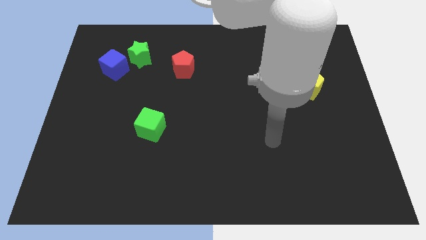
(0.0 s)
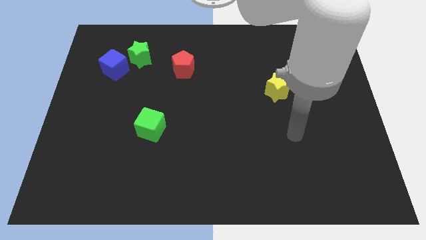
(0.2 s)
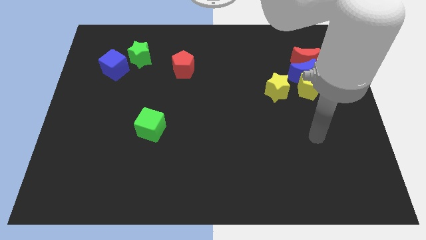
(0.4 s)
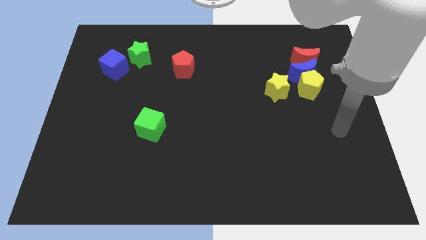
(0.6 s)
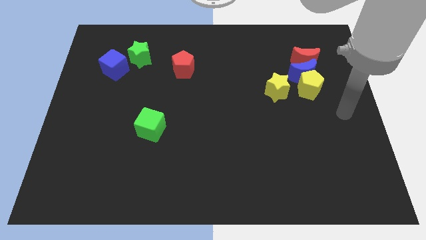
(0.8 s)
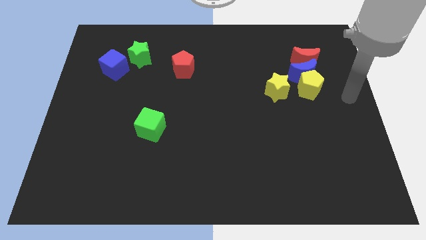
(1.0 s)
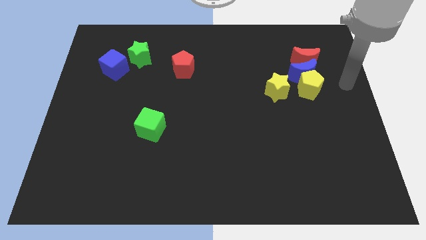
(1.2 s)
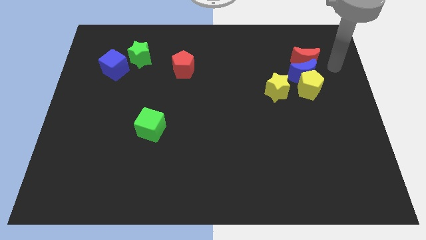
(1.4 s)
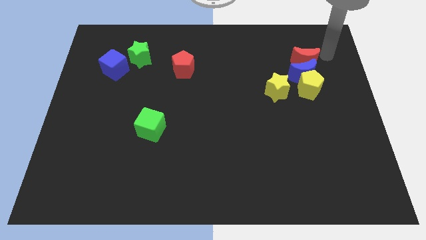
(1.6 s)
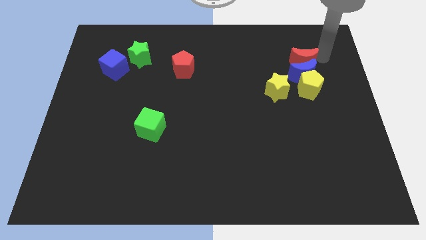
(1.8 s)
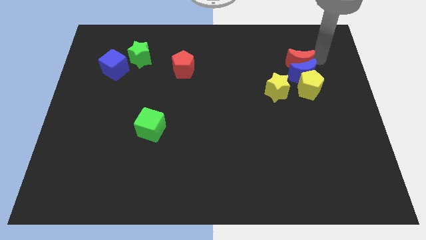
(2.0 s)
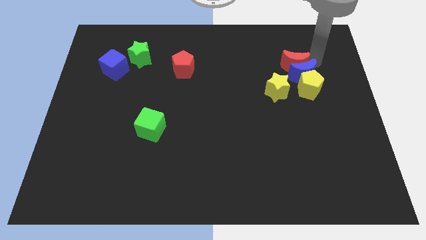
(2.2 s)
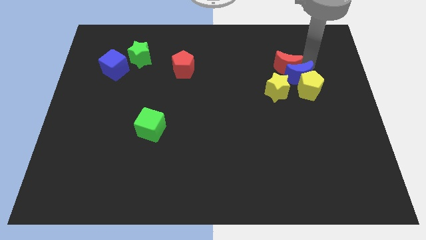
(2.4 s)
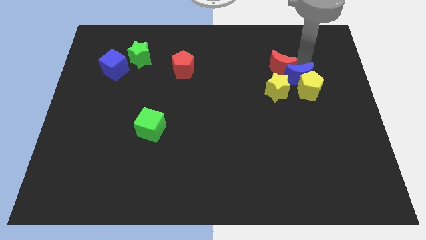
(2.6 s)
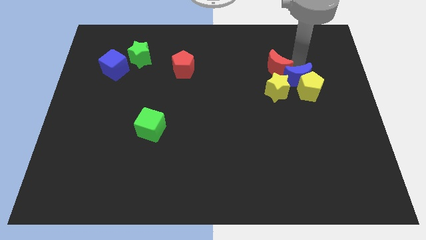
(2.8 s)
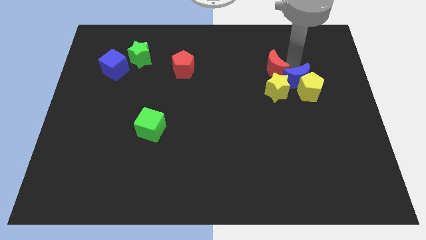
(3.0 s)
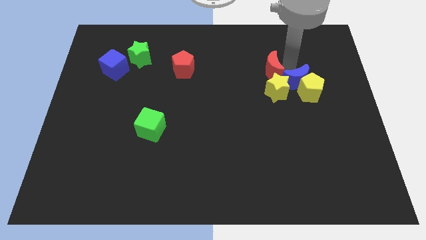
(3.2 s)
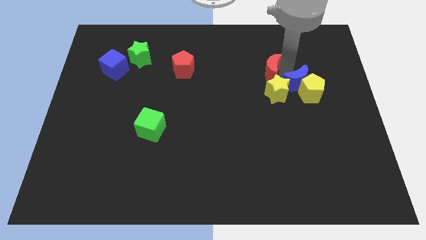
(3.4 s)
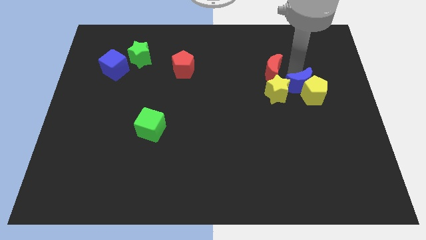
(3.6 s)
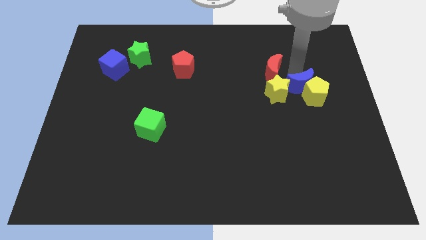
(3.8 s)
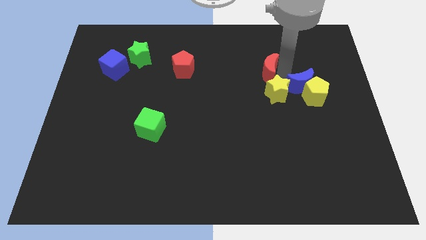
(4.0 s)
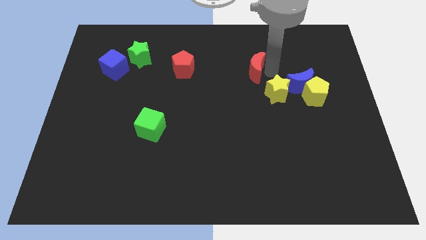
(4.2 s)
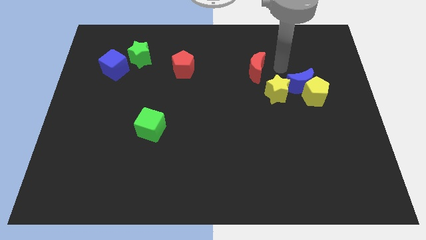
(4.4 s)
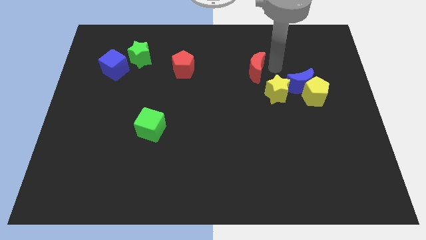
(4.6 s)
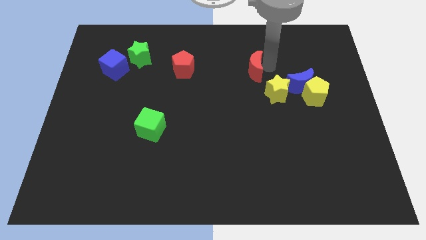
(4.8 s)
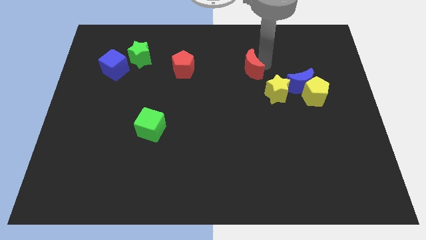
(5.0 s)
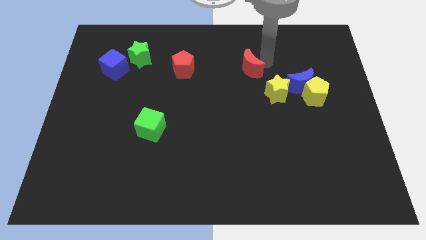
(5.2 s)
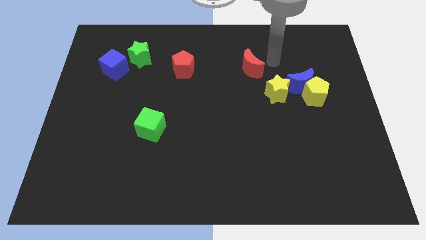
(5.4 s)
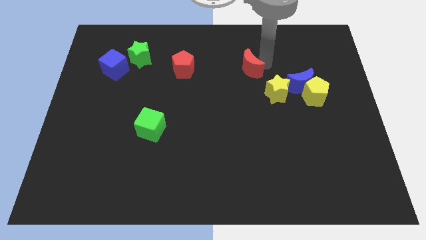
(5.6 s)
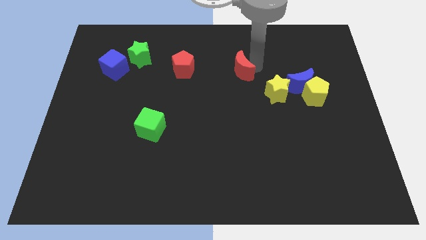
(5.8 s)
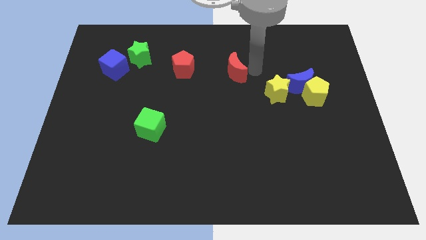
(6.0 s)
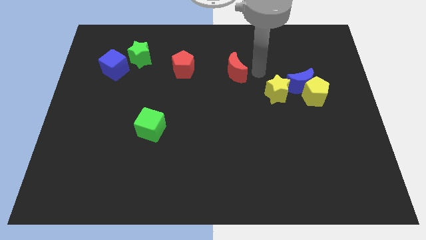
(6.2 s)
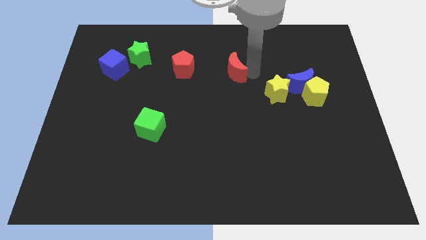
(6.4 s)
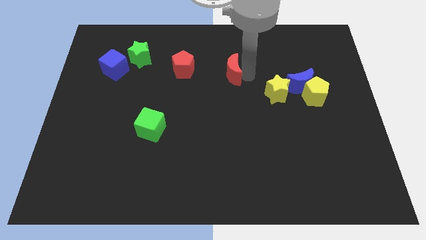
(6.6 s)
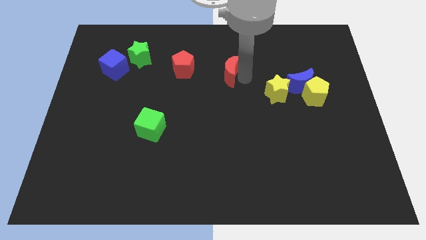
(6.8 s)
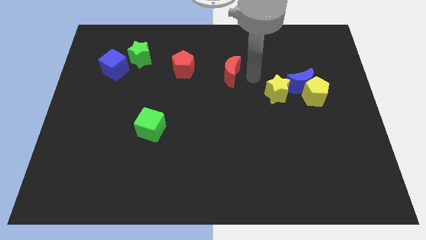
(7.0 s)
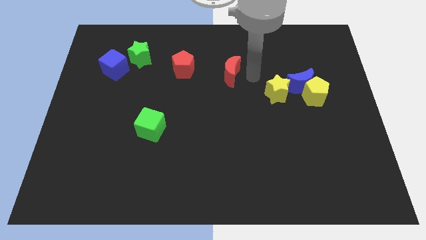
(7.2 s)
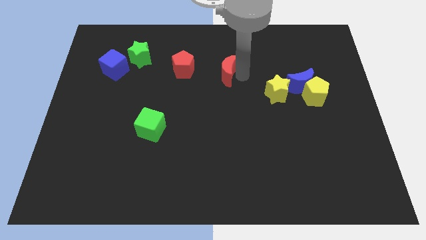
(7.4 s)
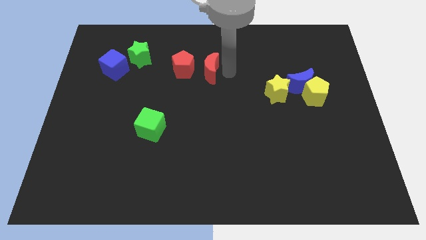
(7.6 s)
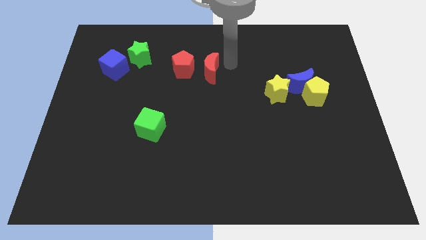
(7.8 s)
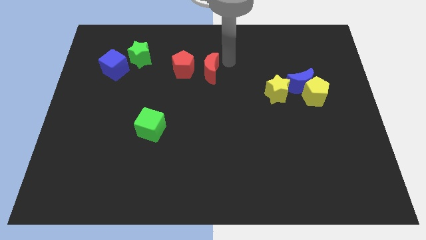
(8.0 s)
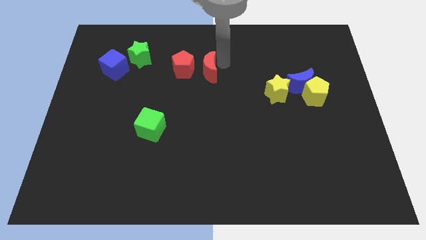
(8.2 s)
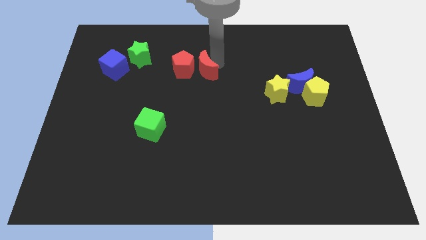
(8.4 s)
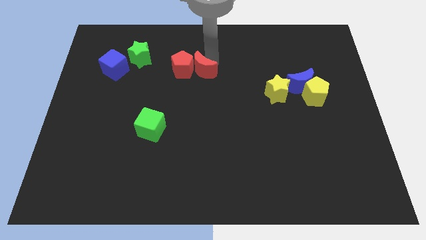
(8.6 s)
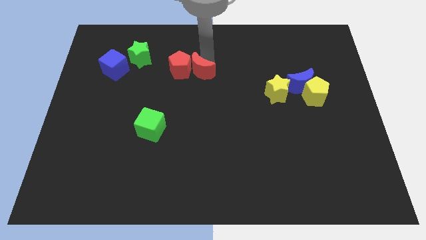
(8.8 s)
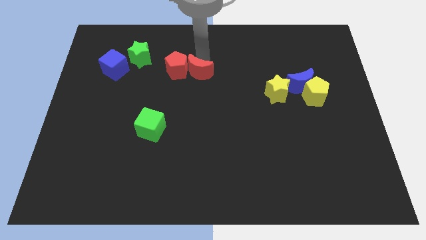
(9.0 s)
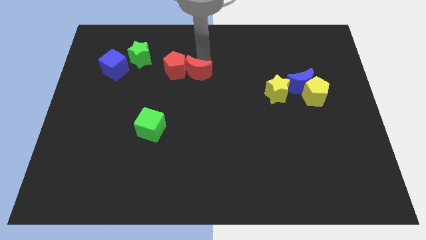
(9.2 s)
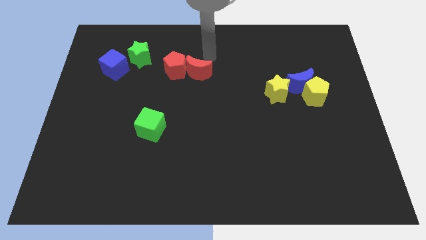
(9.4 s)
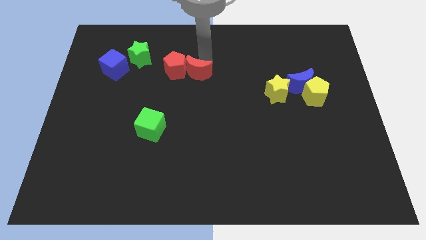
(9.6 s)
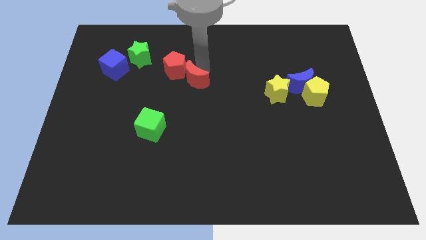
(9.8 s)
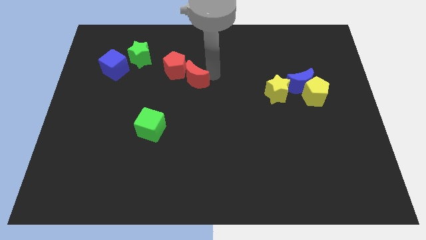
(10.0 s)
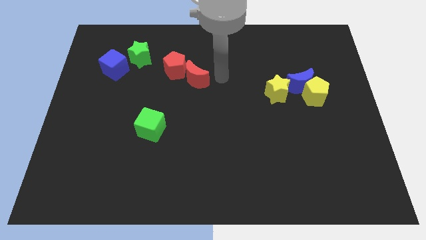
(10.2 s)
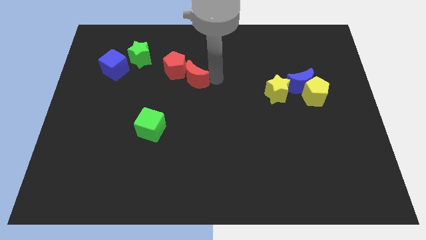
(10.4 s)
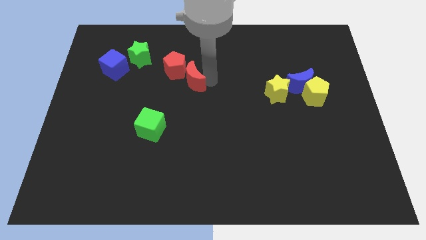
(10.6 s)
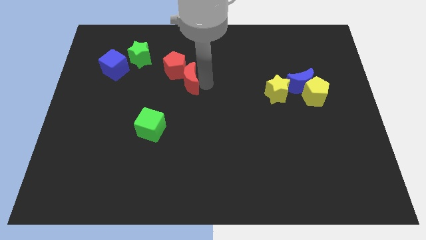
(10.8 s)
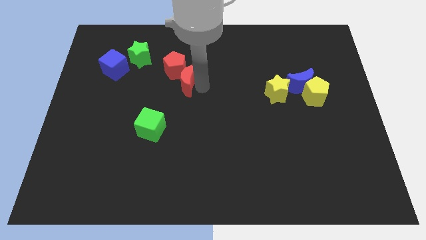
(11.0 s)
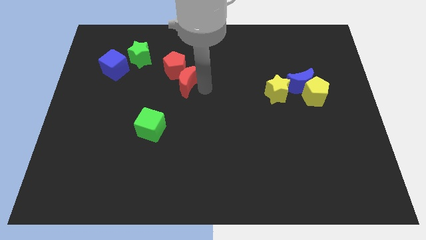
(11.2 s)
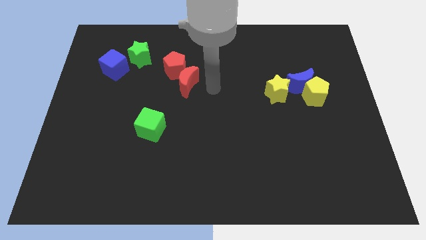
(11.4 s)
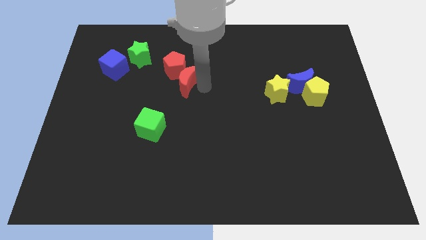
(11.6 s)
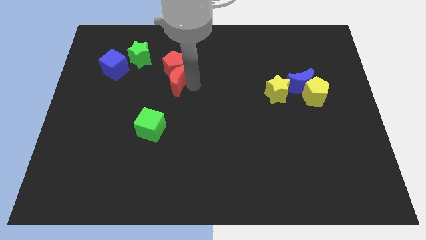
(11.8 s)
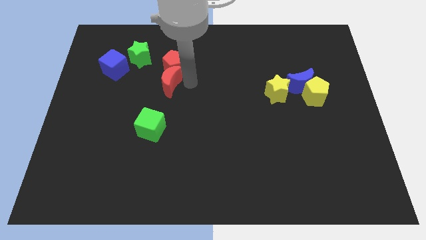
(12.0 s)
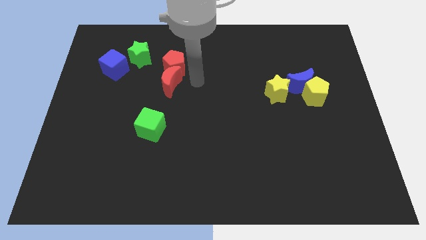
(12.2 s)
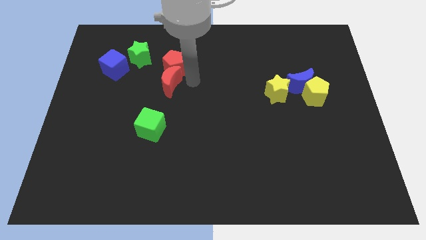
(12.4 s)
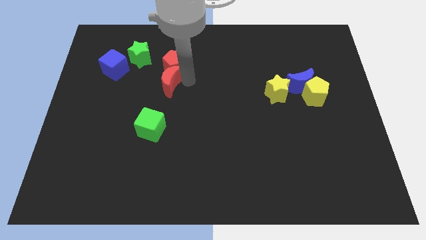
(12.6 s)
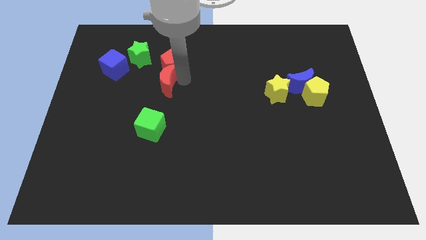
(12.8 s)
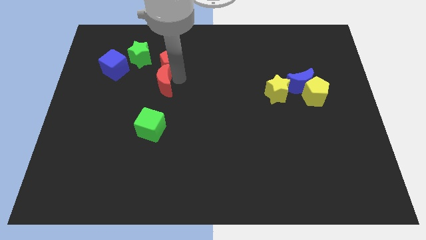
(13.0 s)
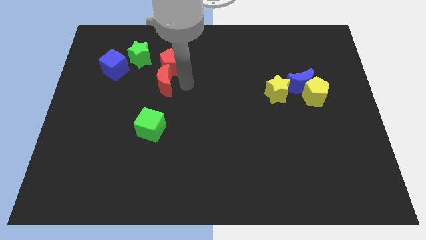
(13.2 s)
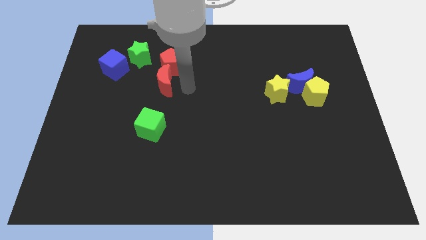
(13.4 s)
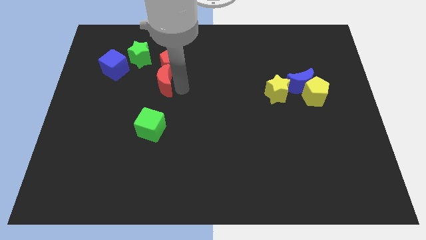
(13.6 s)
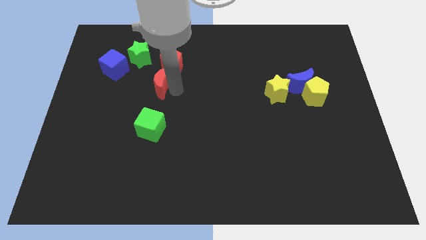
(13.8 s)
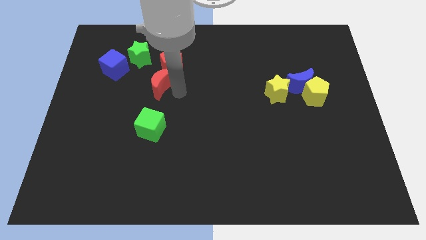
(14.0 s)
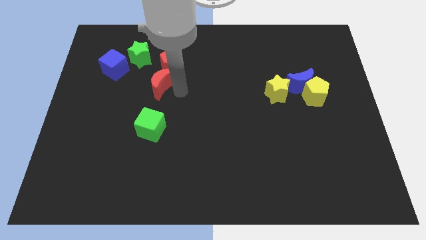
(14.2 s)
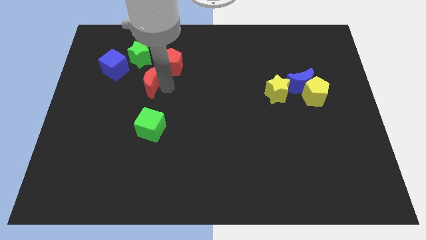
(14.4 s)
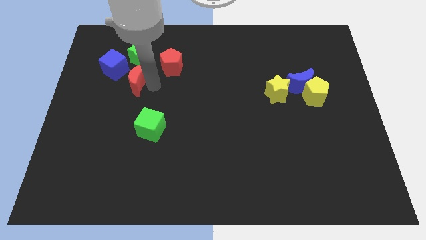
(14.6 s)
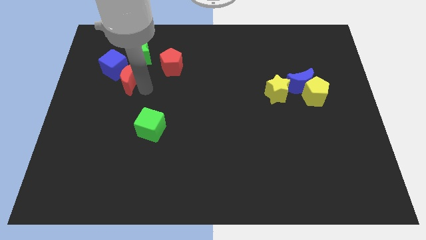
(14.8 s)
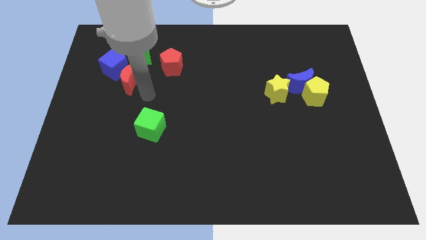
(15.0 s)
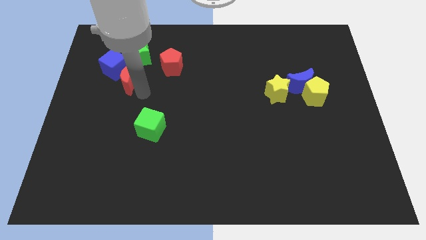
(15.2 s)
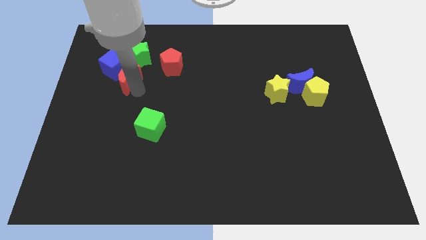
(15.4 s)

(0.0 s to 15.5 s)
push the red moon close to the blue cube
